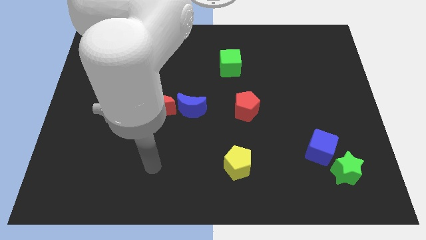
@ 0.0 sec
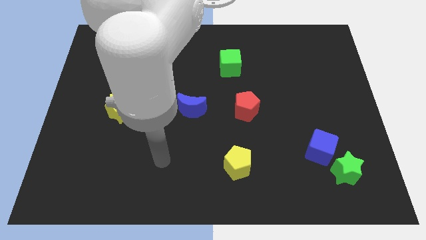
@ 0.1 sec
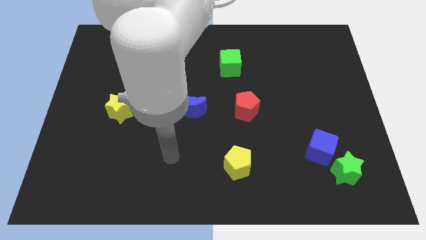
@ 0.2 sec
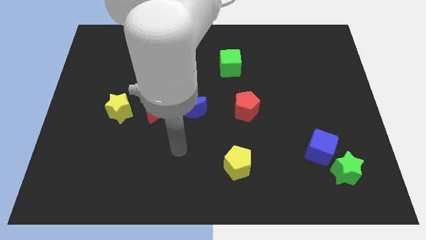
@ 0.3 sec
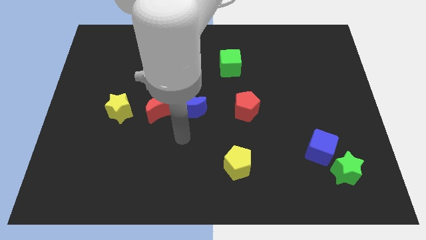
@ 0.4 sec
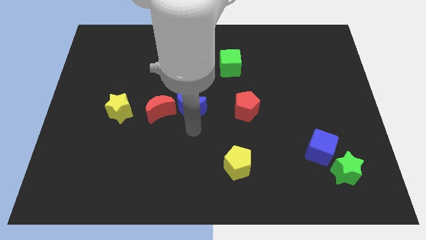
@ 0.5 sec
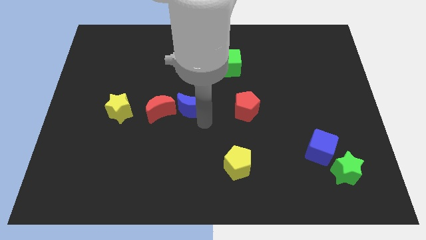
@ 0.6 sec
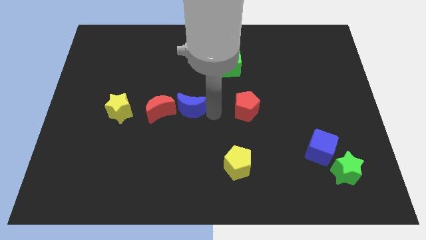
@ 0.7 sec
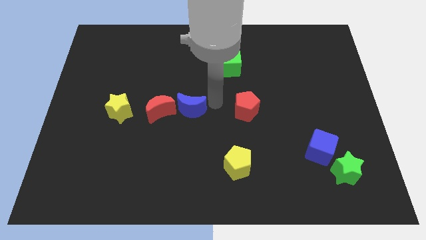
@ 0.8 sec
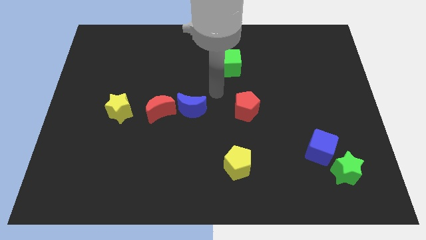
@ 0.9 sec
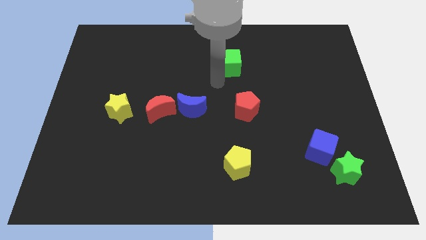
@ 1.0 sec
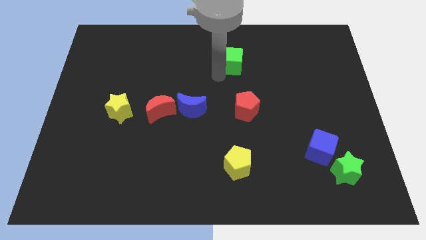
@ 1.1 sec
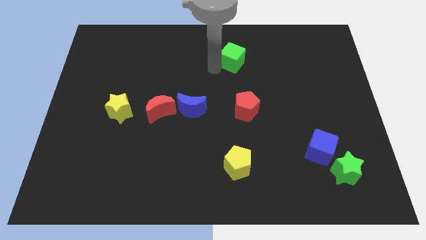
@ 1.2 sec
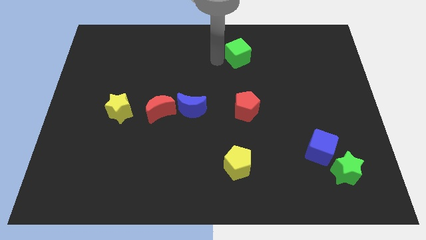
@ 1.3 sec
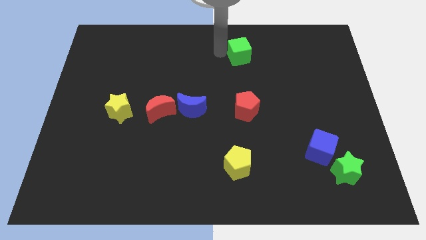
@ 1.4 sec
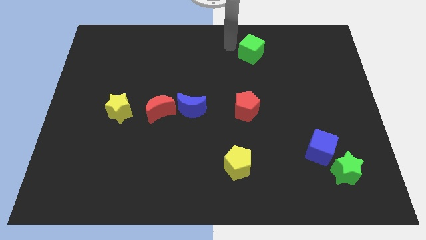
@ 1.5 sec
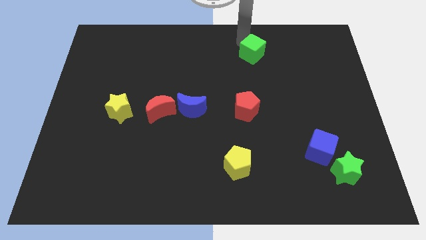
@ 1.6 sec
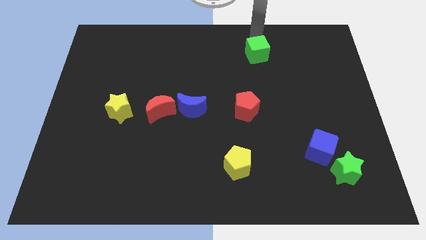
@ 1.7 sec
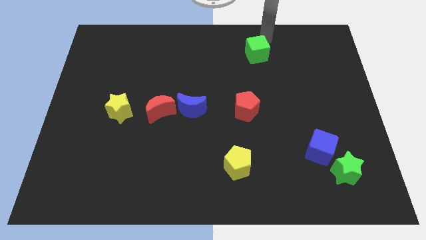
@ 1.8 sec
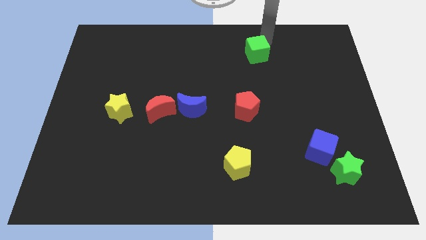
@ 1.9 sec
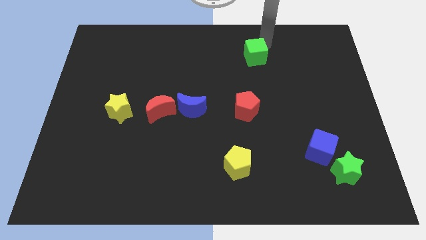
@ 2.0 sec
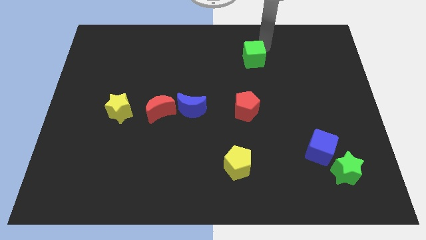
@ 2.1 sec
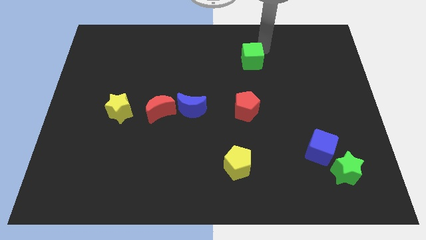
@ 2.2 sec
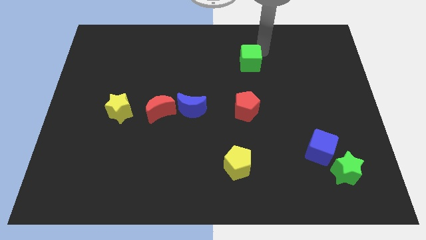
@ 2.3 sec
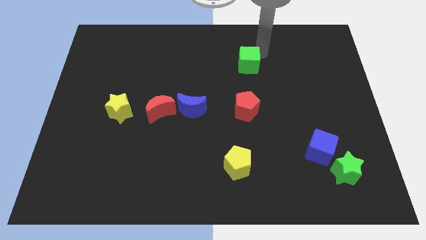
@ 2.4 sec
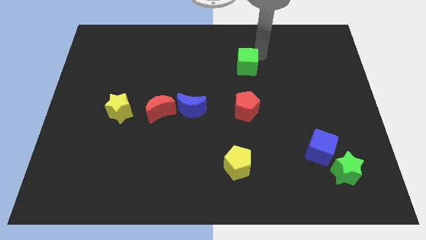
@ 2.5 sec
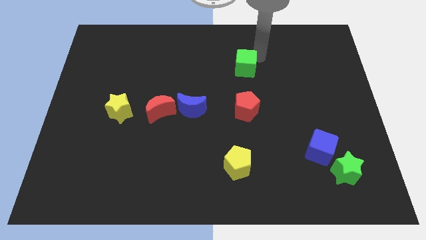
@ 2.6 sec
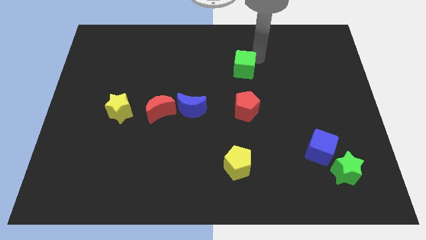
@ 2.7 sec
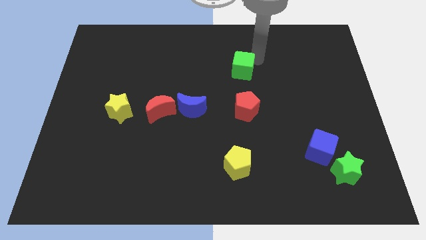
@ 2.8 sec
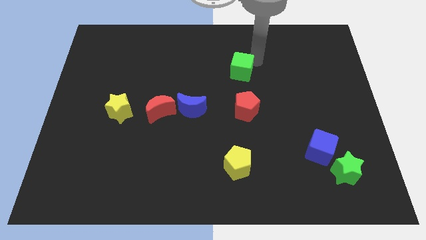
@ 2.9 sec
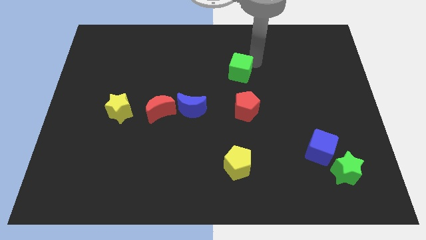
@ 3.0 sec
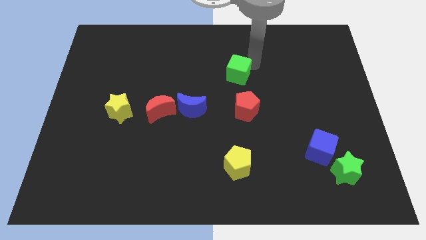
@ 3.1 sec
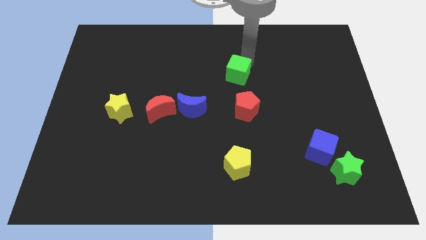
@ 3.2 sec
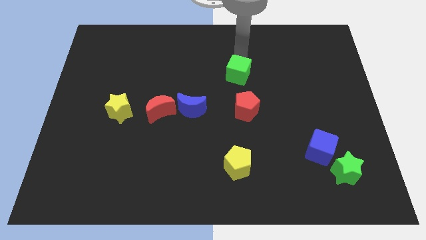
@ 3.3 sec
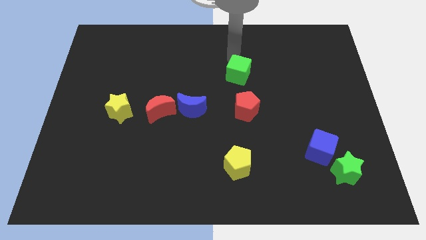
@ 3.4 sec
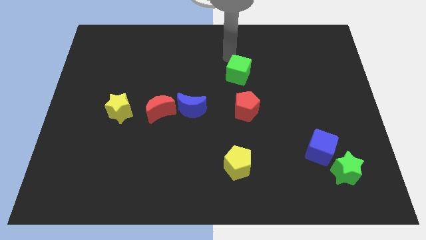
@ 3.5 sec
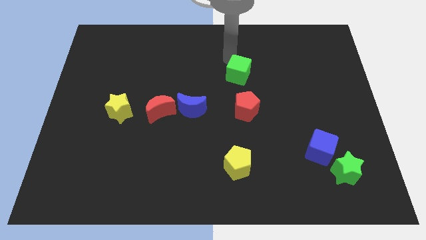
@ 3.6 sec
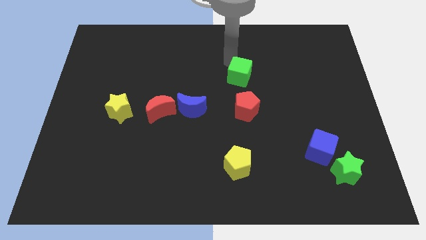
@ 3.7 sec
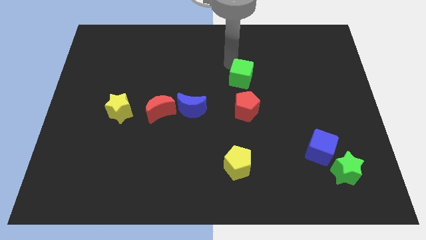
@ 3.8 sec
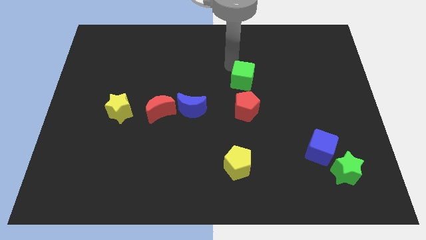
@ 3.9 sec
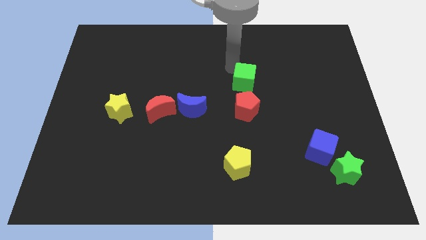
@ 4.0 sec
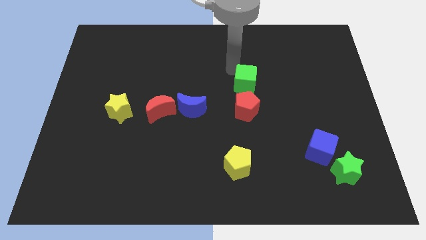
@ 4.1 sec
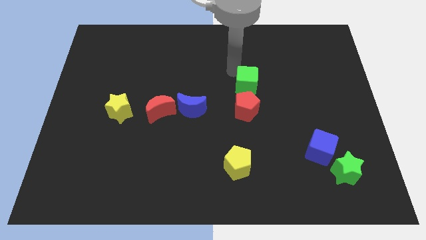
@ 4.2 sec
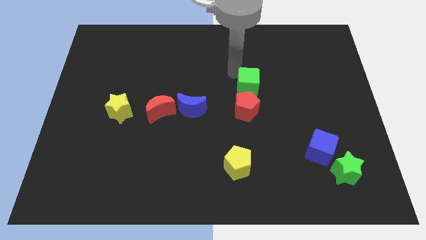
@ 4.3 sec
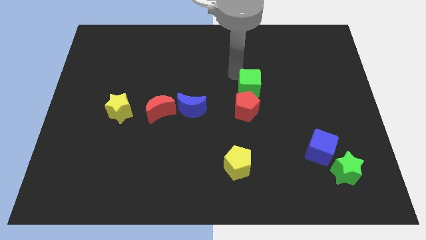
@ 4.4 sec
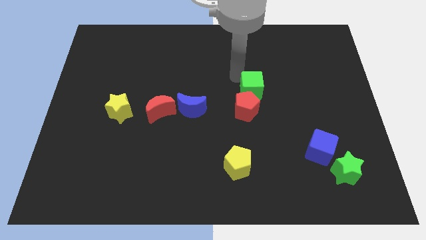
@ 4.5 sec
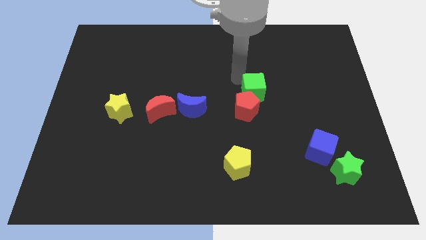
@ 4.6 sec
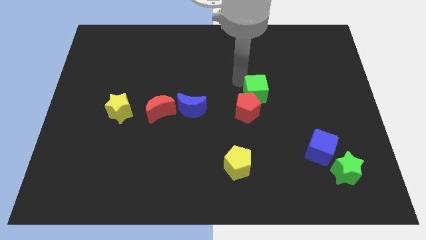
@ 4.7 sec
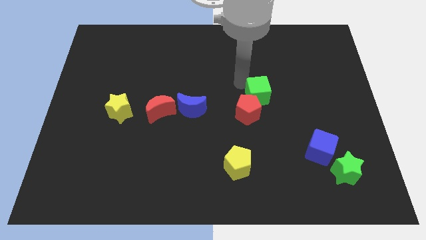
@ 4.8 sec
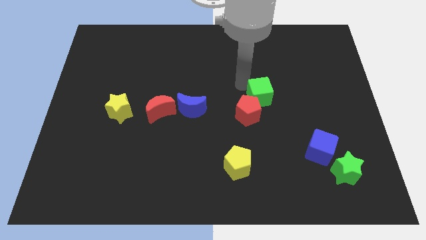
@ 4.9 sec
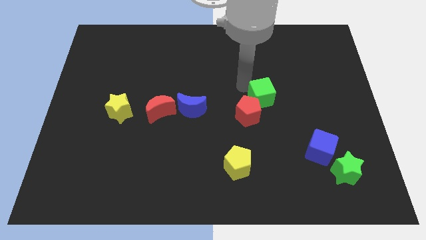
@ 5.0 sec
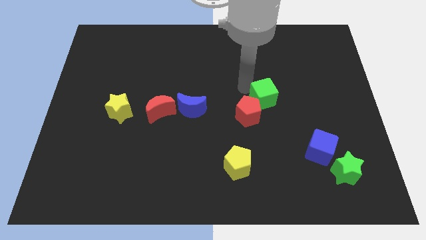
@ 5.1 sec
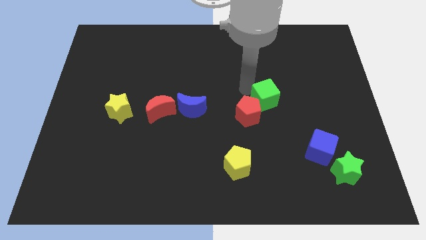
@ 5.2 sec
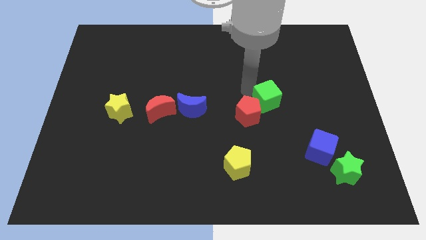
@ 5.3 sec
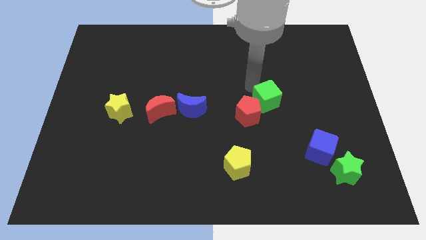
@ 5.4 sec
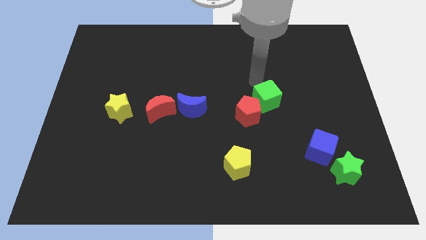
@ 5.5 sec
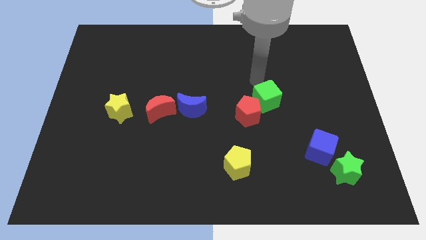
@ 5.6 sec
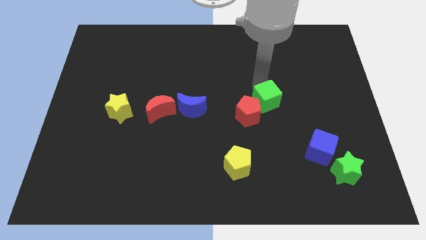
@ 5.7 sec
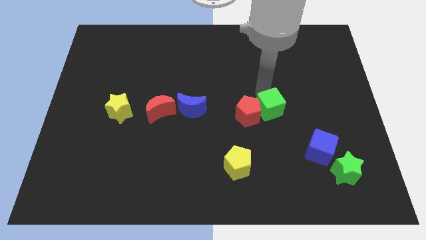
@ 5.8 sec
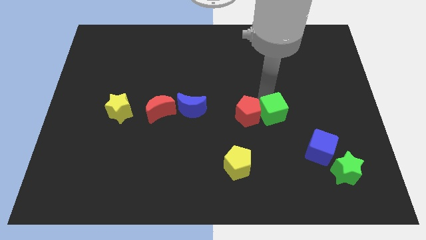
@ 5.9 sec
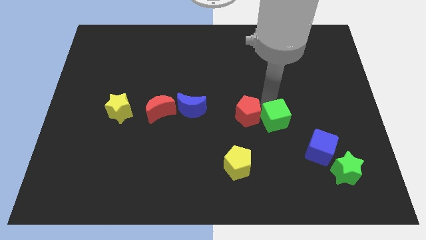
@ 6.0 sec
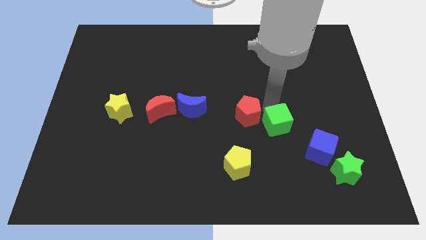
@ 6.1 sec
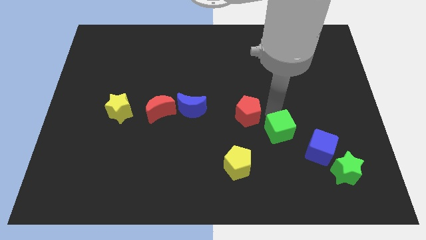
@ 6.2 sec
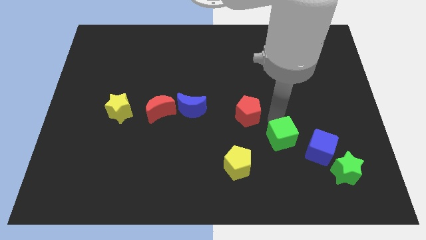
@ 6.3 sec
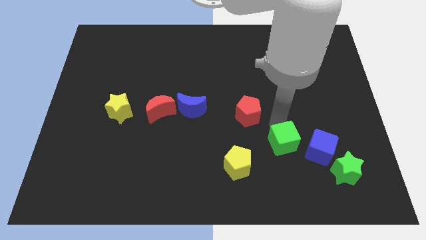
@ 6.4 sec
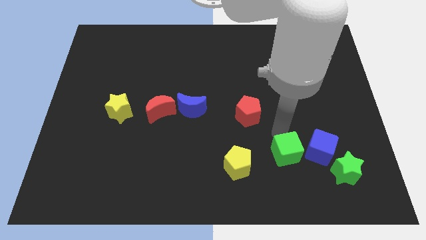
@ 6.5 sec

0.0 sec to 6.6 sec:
push the green cube to the bottom left of the blue cube
